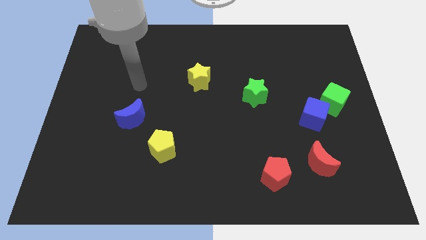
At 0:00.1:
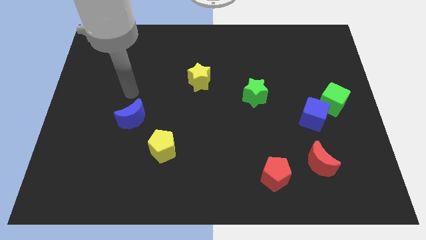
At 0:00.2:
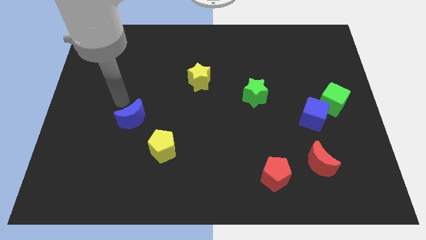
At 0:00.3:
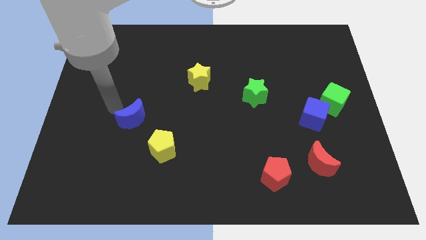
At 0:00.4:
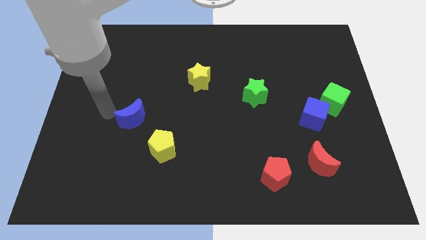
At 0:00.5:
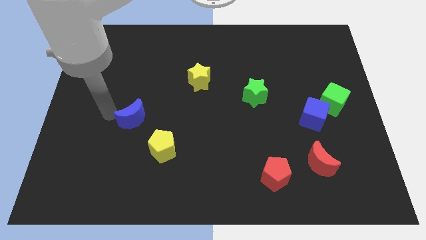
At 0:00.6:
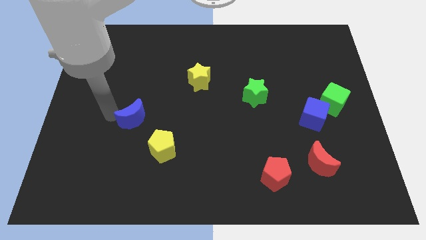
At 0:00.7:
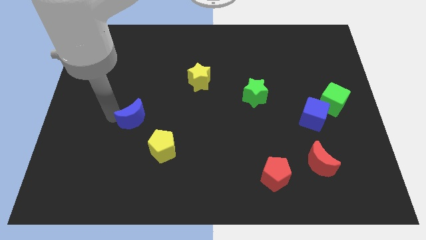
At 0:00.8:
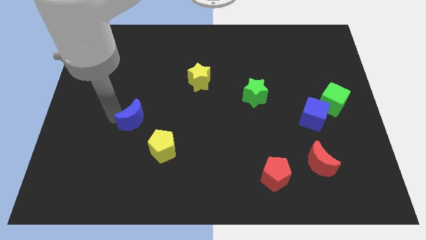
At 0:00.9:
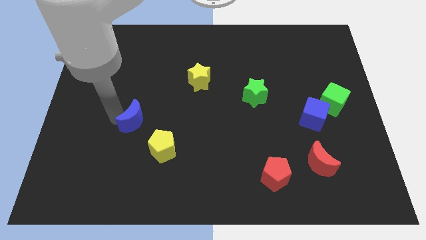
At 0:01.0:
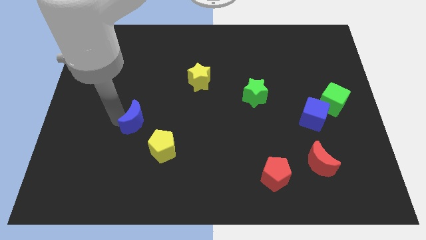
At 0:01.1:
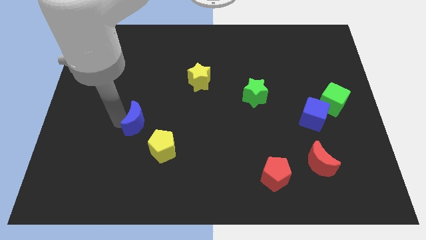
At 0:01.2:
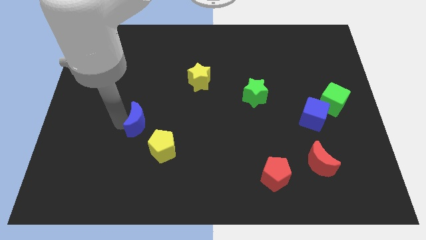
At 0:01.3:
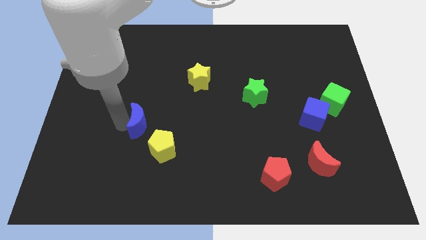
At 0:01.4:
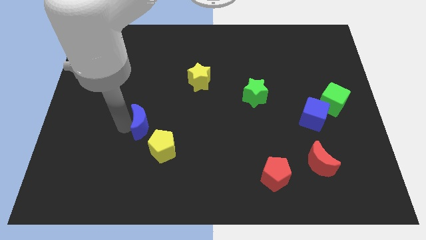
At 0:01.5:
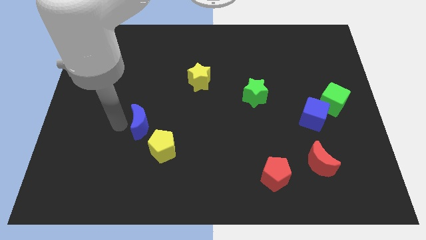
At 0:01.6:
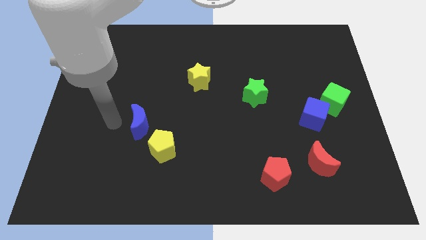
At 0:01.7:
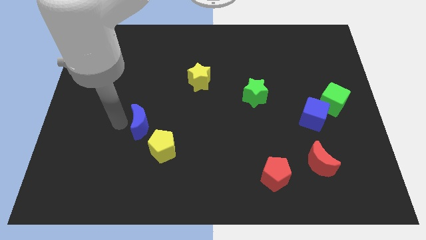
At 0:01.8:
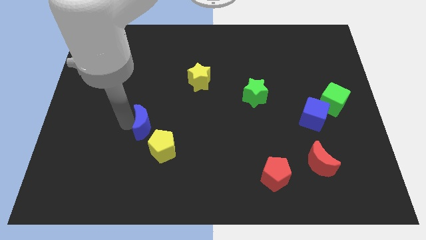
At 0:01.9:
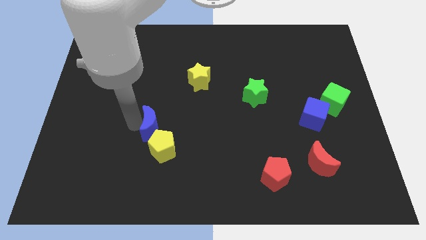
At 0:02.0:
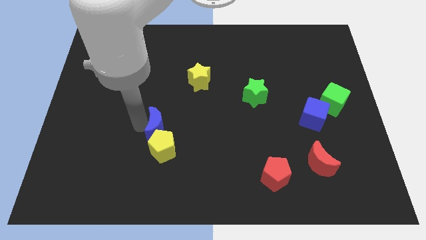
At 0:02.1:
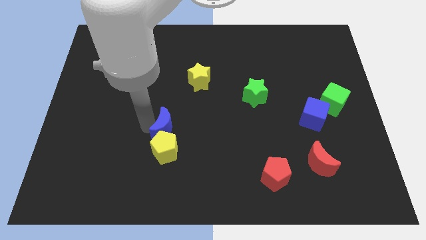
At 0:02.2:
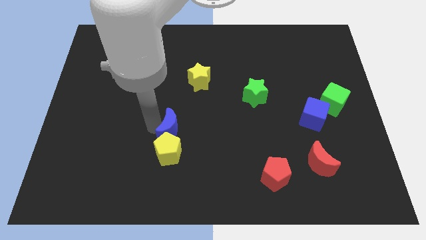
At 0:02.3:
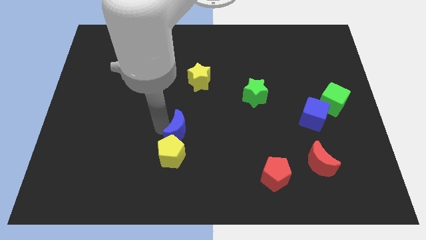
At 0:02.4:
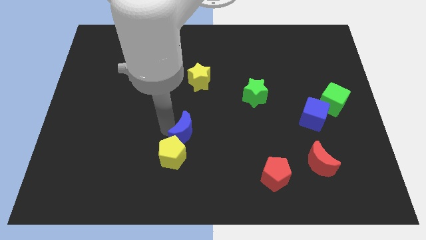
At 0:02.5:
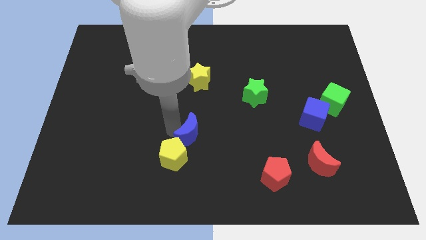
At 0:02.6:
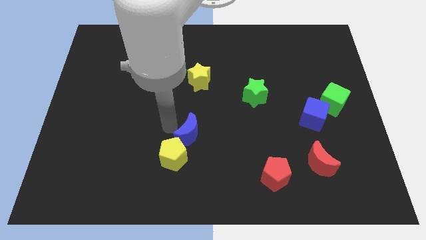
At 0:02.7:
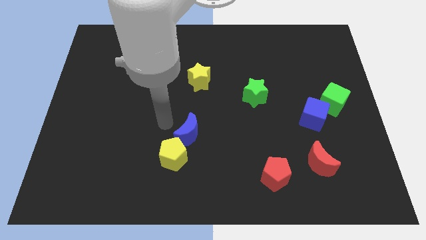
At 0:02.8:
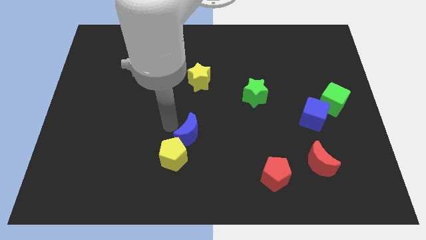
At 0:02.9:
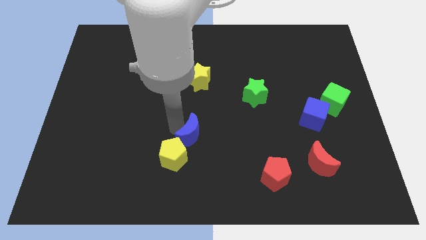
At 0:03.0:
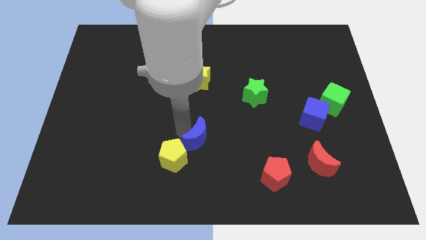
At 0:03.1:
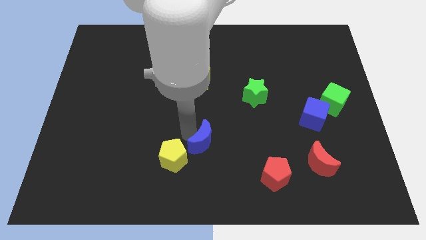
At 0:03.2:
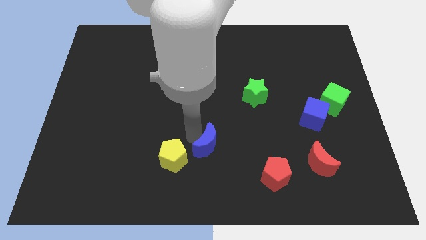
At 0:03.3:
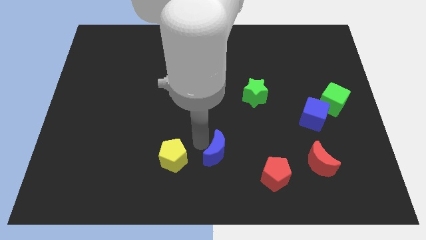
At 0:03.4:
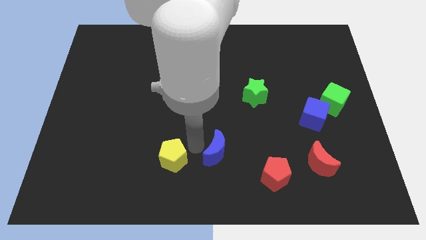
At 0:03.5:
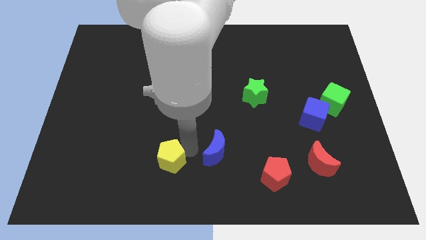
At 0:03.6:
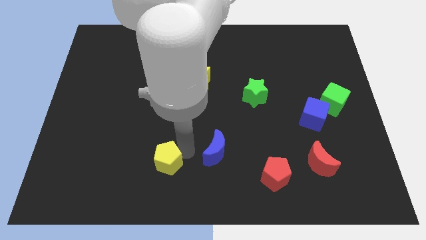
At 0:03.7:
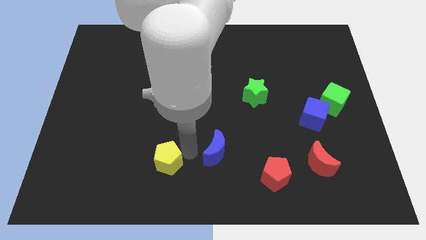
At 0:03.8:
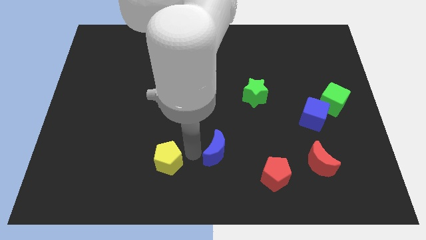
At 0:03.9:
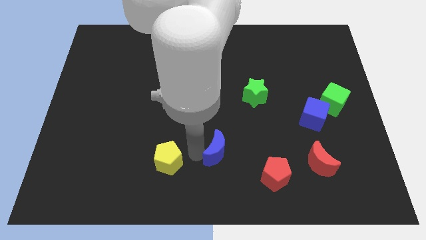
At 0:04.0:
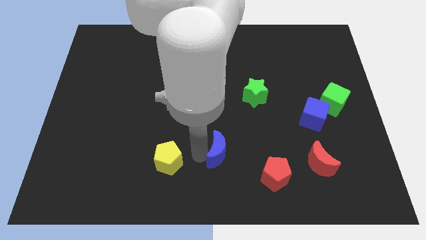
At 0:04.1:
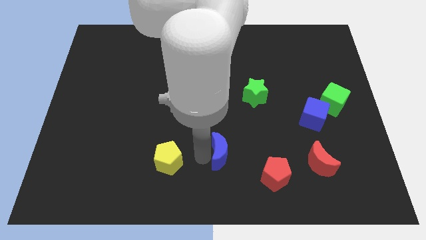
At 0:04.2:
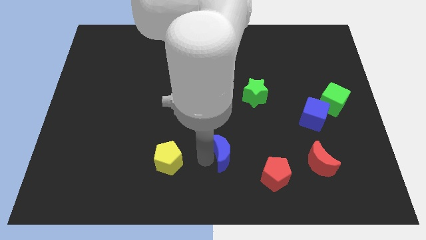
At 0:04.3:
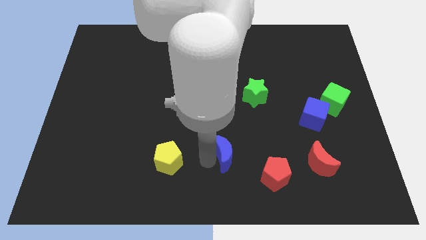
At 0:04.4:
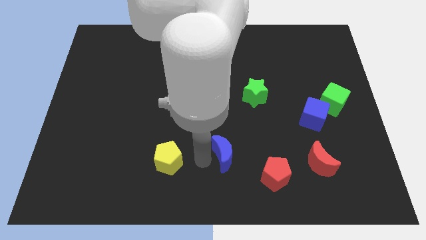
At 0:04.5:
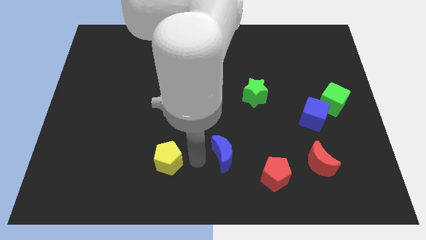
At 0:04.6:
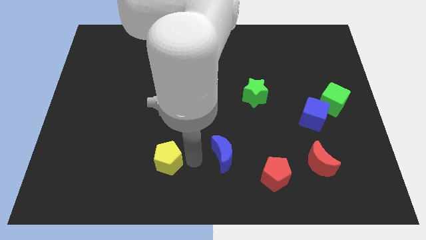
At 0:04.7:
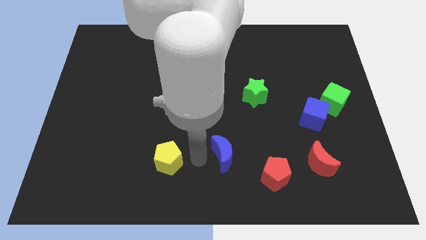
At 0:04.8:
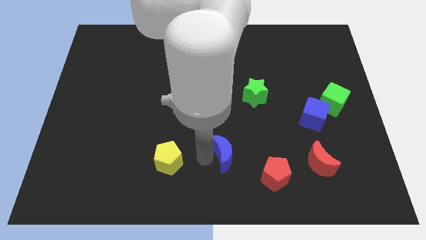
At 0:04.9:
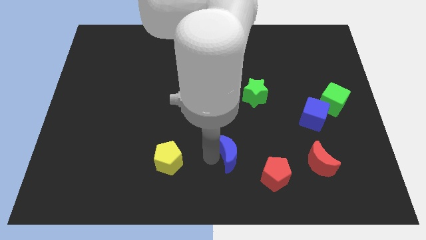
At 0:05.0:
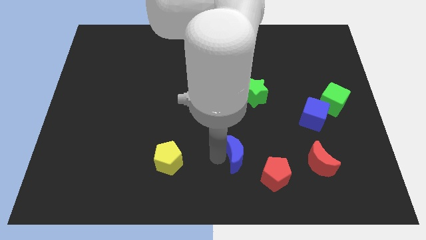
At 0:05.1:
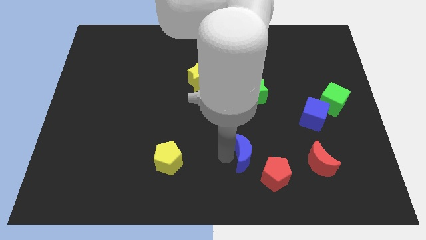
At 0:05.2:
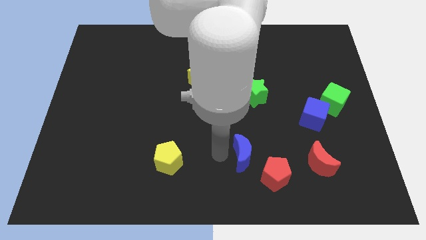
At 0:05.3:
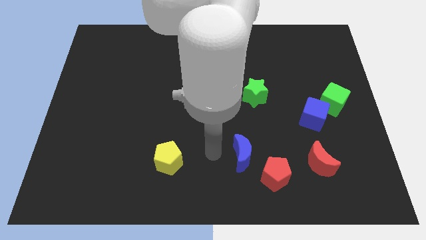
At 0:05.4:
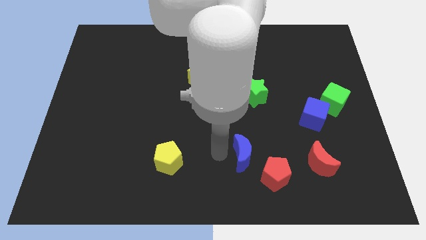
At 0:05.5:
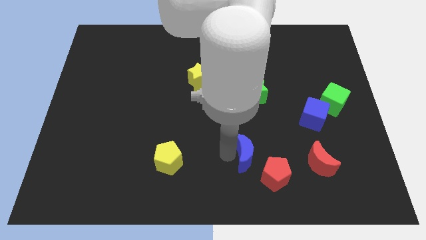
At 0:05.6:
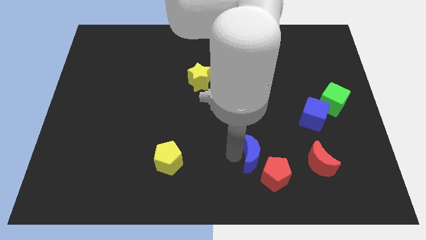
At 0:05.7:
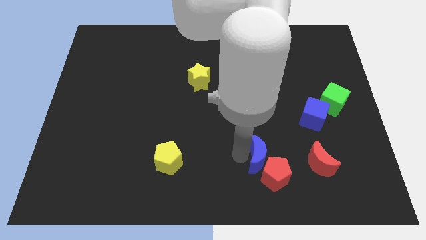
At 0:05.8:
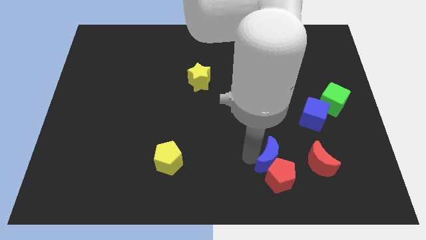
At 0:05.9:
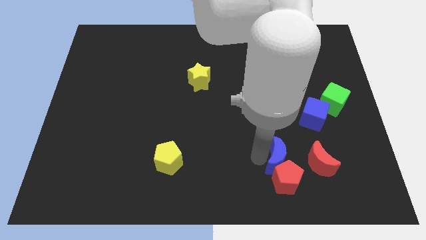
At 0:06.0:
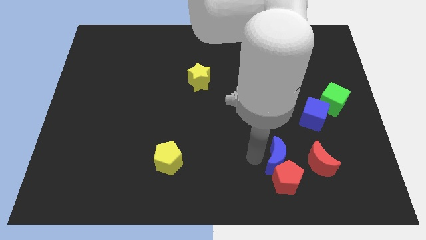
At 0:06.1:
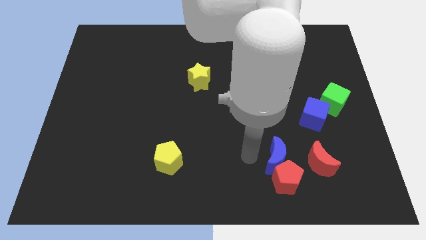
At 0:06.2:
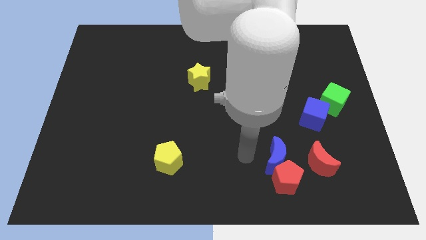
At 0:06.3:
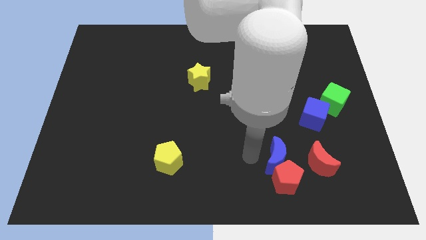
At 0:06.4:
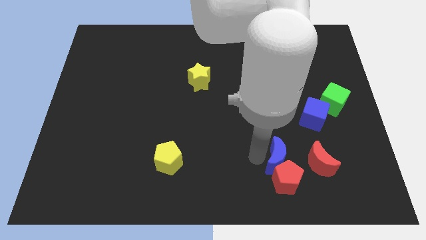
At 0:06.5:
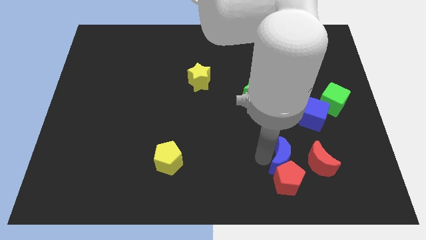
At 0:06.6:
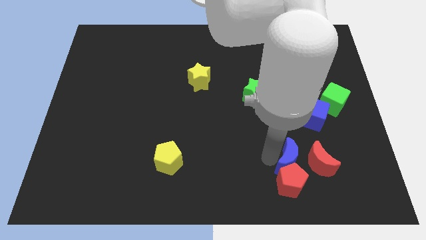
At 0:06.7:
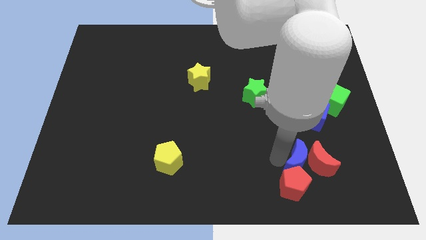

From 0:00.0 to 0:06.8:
move the blue moon next to the red moon

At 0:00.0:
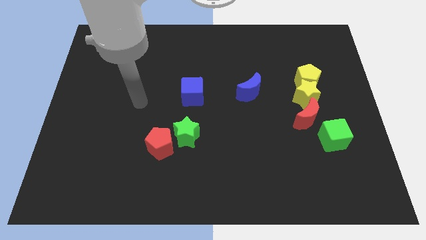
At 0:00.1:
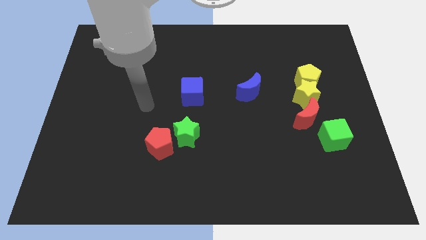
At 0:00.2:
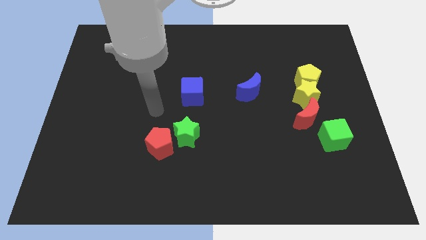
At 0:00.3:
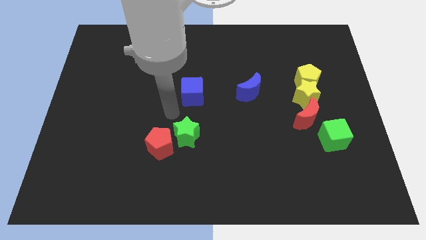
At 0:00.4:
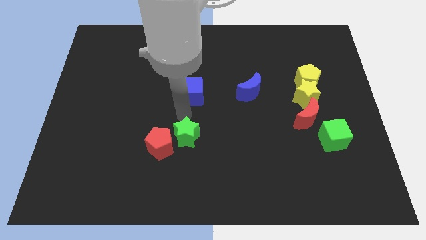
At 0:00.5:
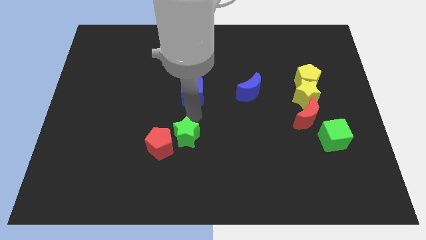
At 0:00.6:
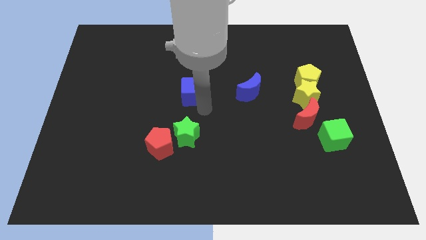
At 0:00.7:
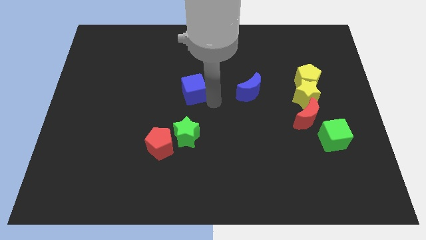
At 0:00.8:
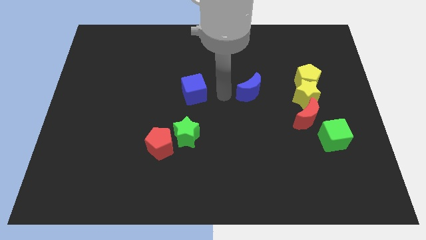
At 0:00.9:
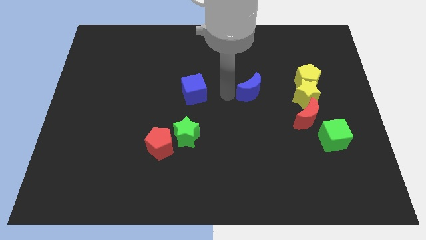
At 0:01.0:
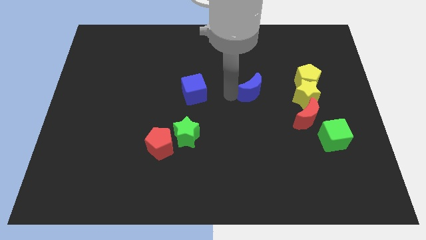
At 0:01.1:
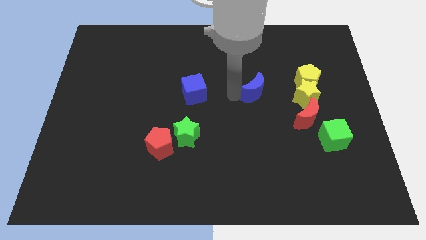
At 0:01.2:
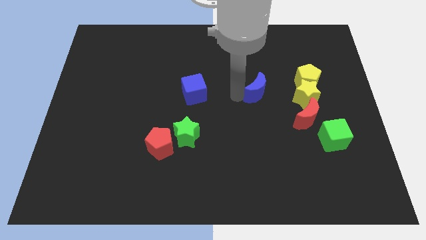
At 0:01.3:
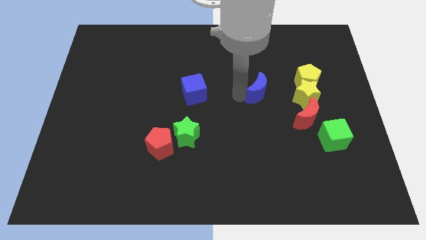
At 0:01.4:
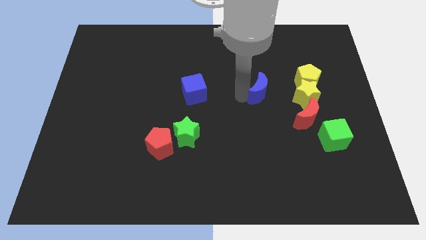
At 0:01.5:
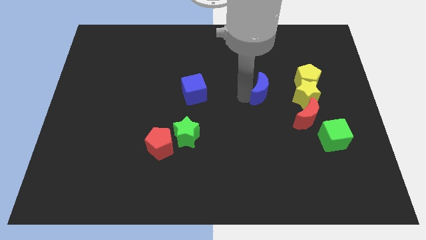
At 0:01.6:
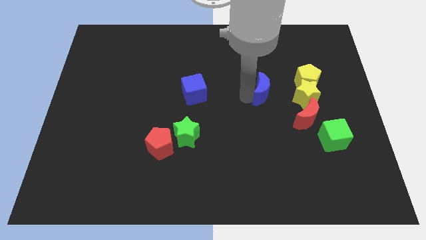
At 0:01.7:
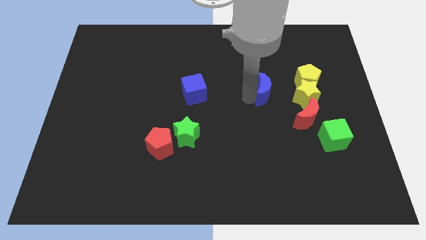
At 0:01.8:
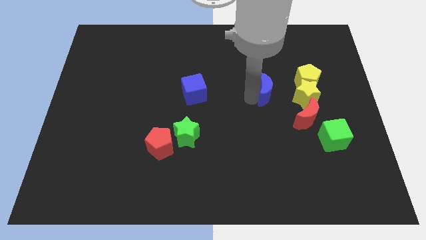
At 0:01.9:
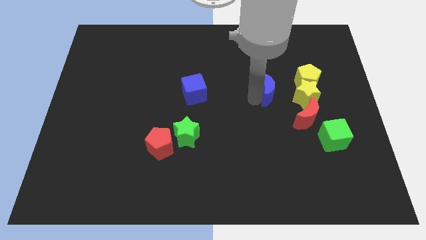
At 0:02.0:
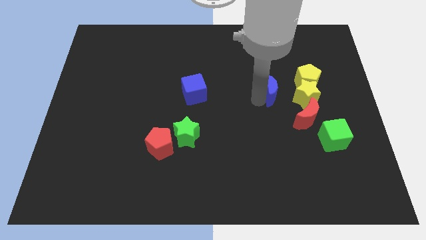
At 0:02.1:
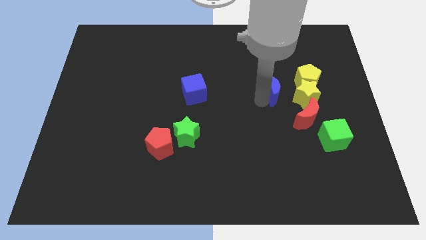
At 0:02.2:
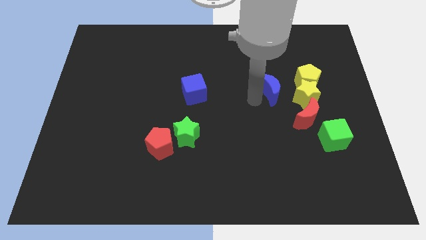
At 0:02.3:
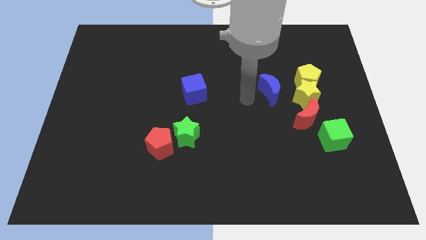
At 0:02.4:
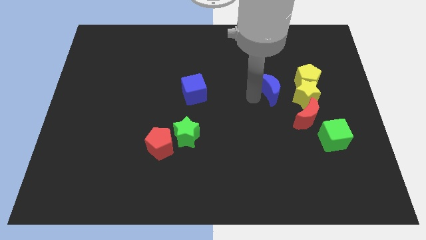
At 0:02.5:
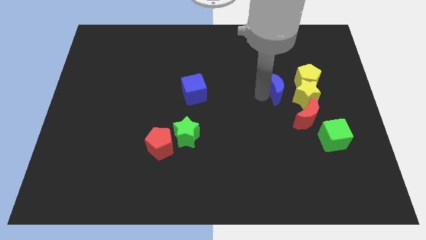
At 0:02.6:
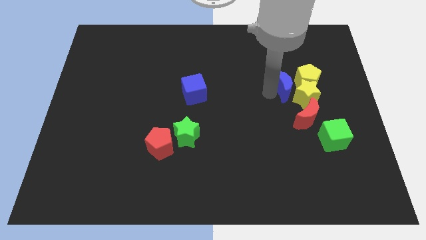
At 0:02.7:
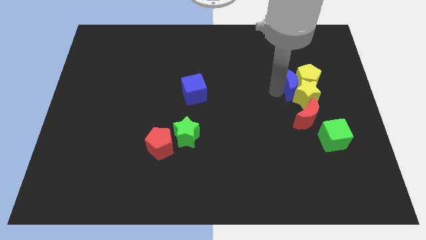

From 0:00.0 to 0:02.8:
move the blue moon to the yellow pentagon
